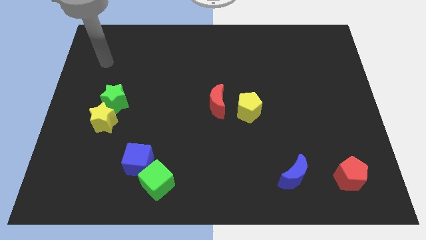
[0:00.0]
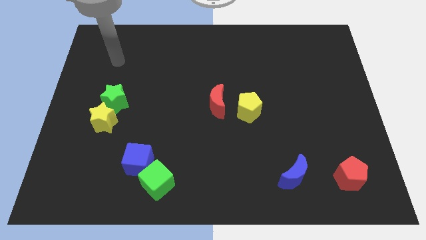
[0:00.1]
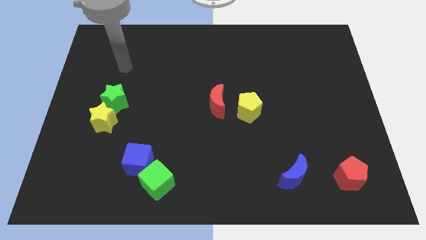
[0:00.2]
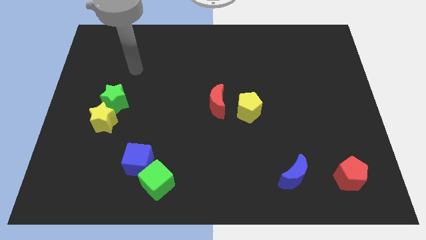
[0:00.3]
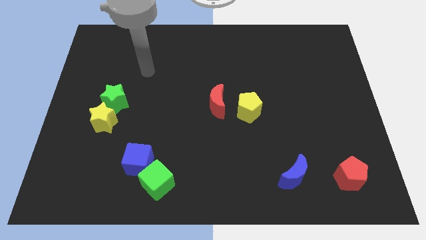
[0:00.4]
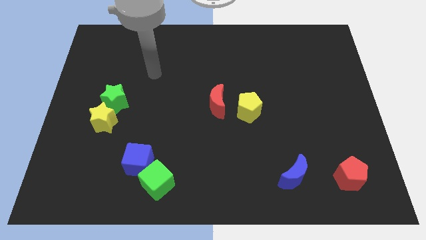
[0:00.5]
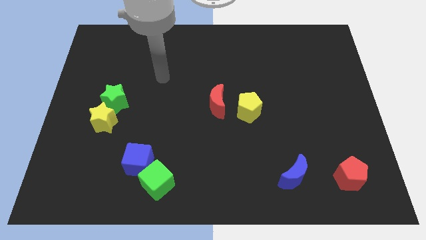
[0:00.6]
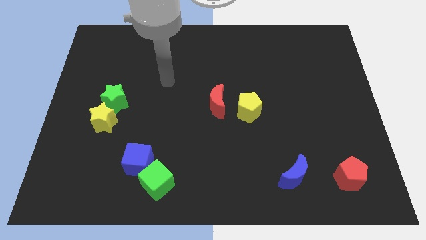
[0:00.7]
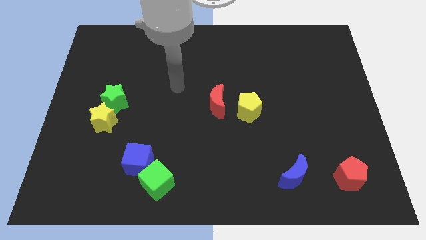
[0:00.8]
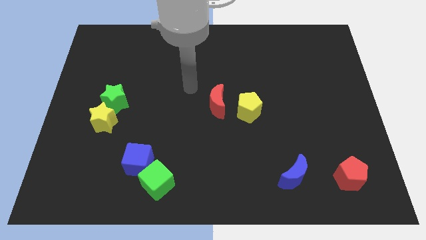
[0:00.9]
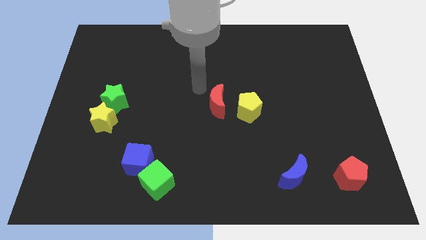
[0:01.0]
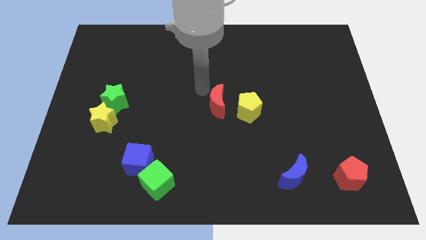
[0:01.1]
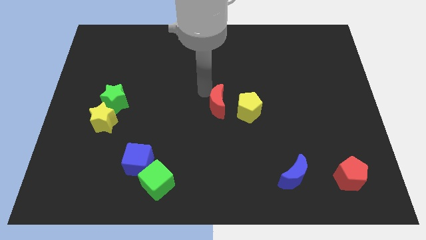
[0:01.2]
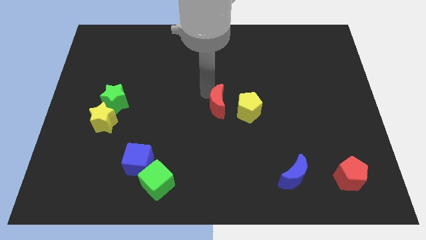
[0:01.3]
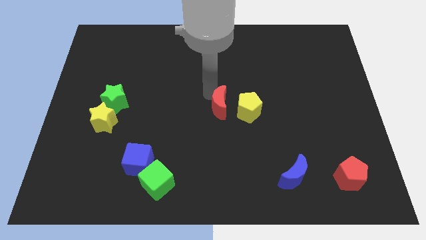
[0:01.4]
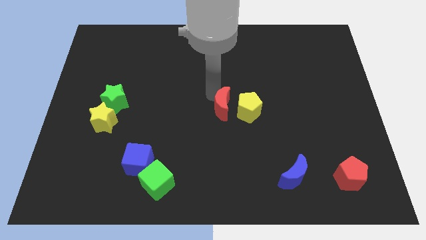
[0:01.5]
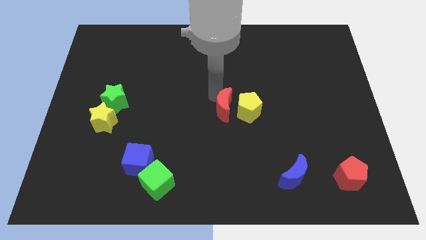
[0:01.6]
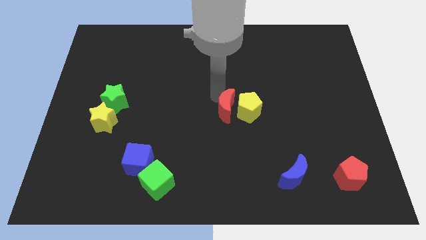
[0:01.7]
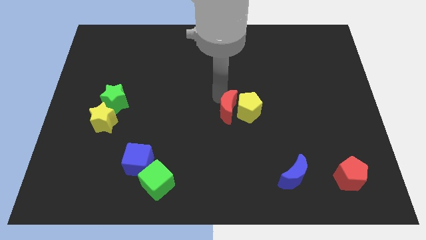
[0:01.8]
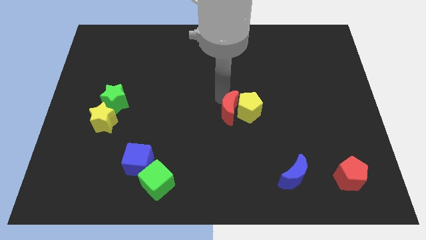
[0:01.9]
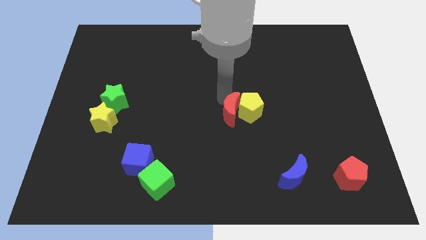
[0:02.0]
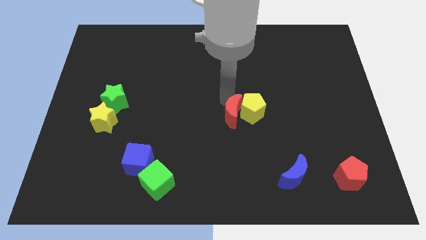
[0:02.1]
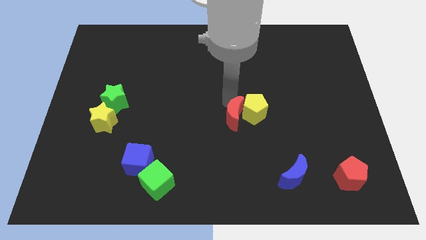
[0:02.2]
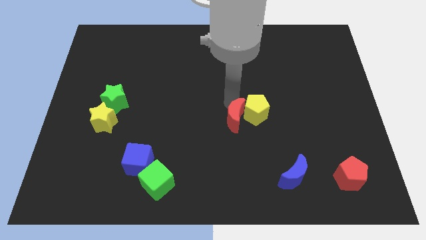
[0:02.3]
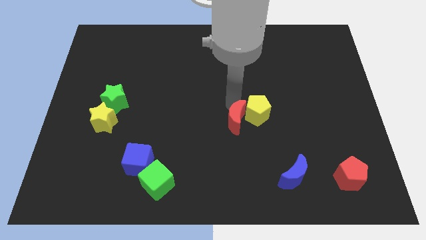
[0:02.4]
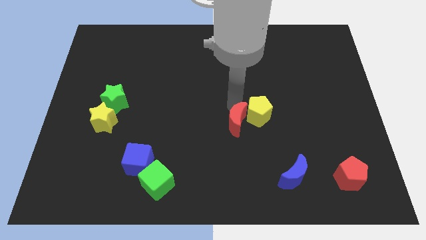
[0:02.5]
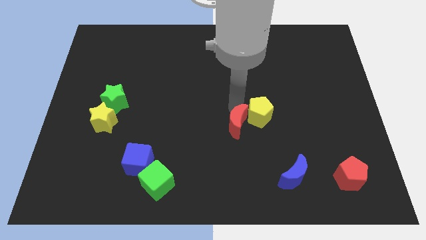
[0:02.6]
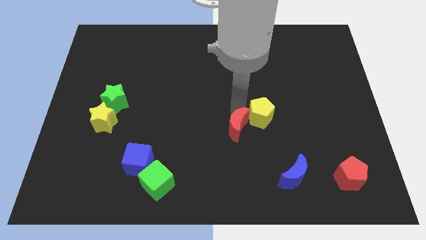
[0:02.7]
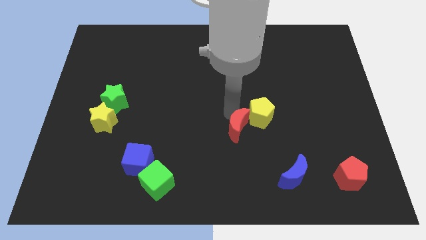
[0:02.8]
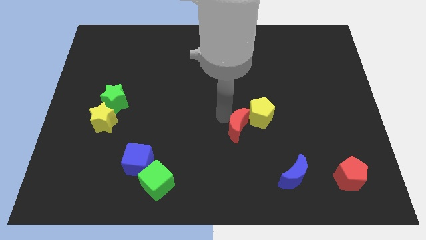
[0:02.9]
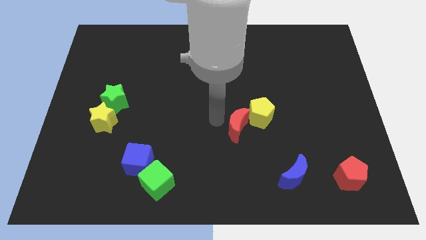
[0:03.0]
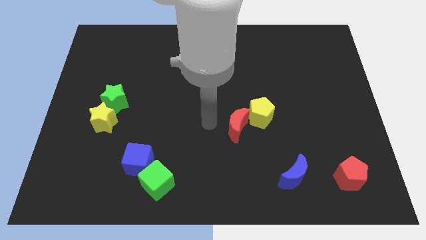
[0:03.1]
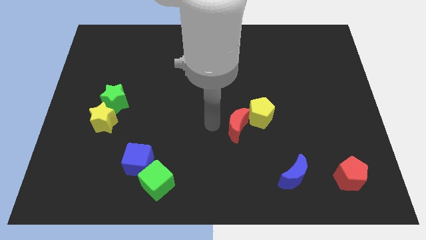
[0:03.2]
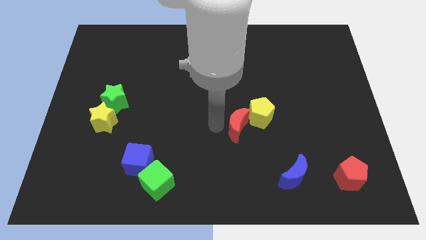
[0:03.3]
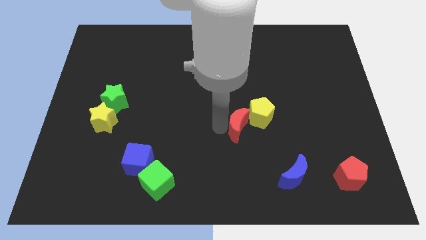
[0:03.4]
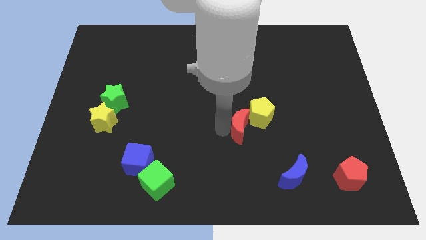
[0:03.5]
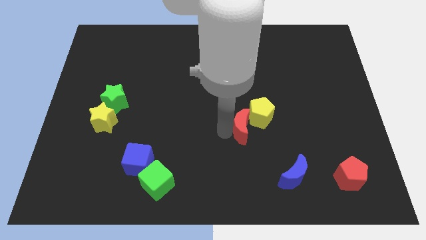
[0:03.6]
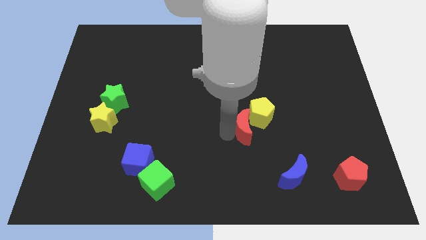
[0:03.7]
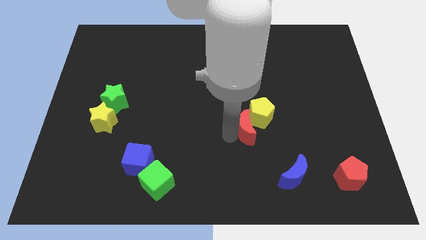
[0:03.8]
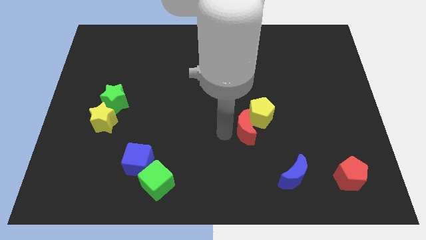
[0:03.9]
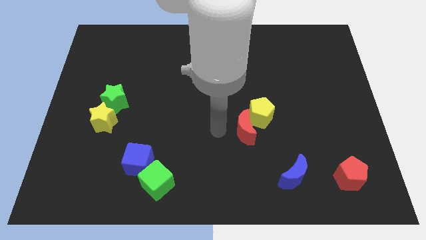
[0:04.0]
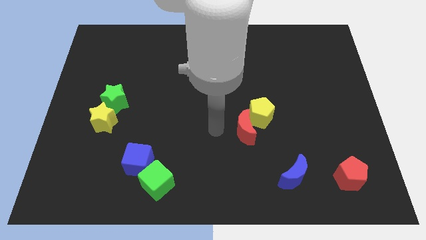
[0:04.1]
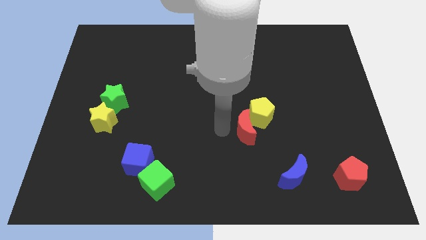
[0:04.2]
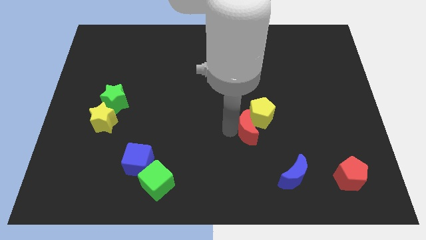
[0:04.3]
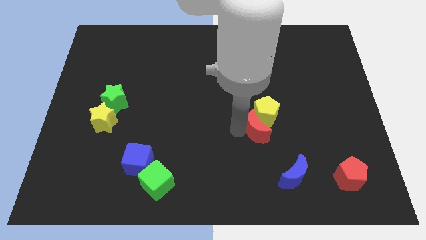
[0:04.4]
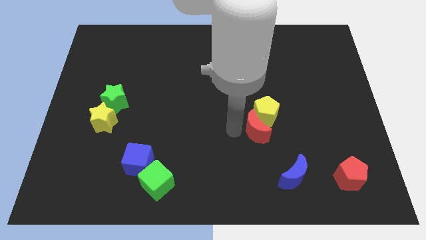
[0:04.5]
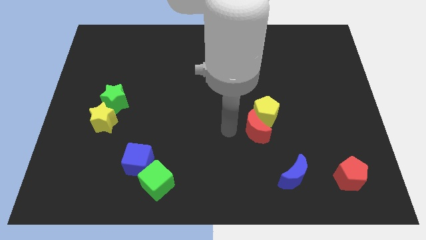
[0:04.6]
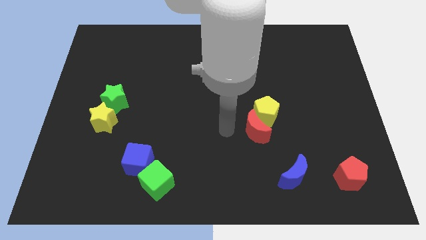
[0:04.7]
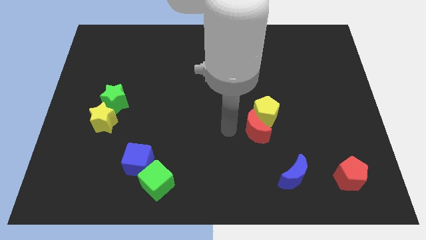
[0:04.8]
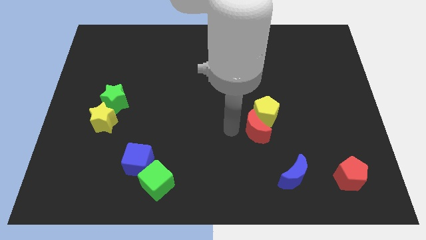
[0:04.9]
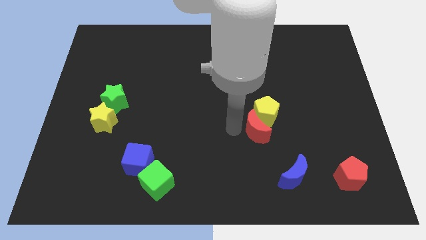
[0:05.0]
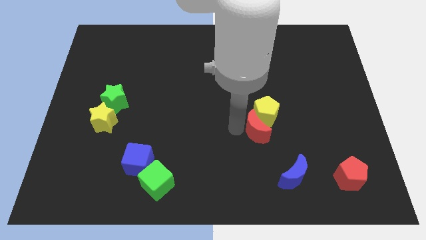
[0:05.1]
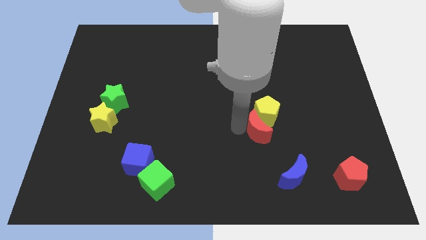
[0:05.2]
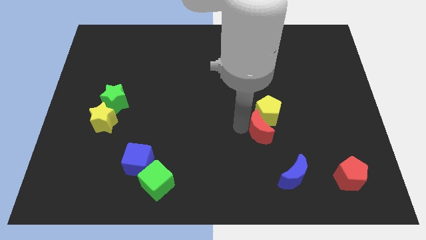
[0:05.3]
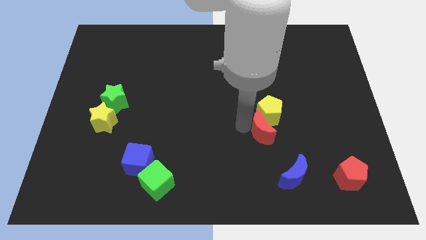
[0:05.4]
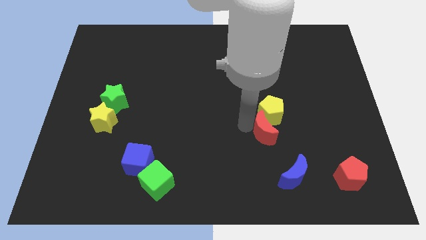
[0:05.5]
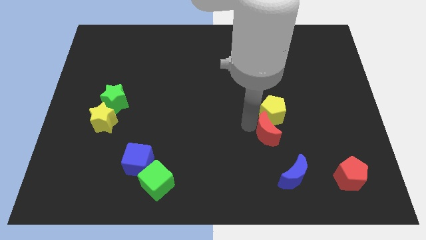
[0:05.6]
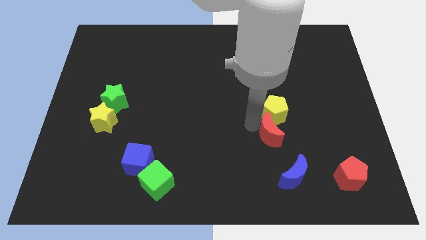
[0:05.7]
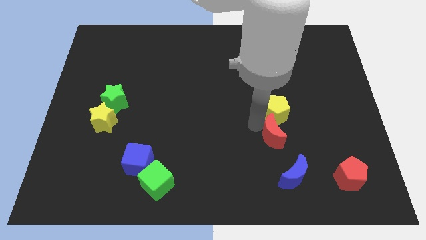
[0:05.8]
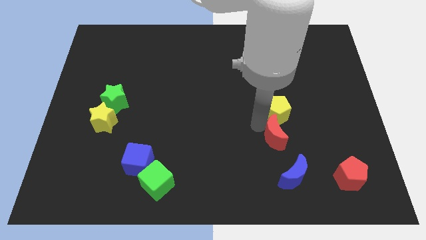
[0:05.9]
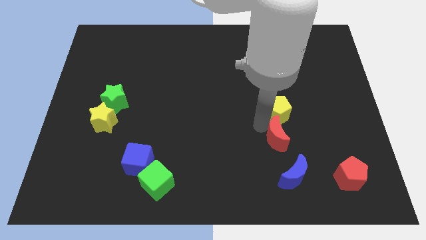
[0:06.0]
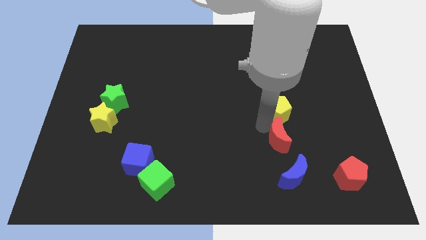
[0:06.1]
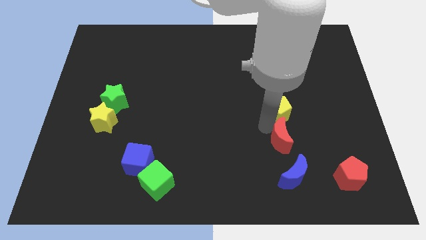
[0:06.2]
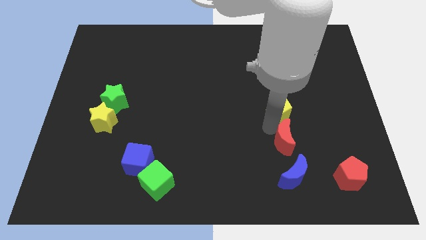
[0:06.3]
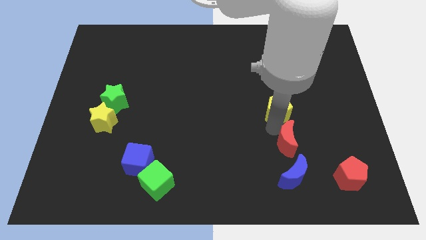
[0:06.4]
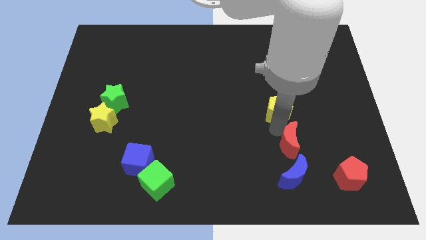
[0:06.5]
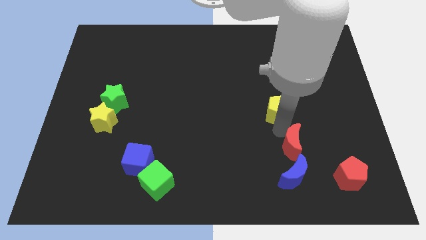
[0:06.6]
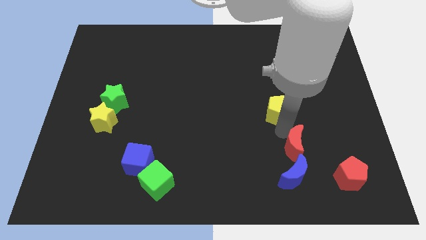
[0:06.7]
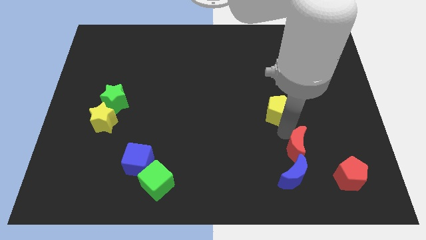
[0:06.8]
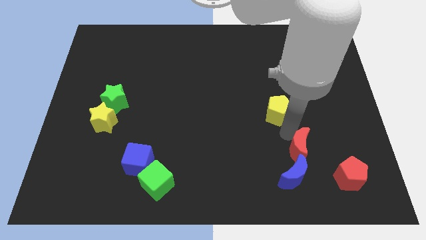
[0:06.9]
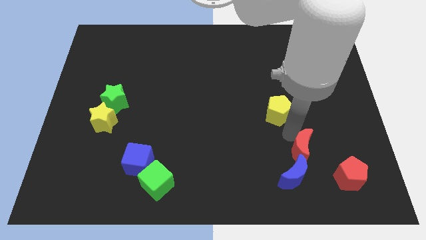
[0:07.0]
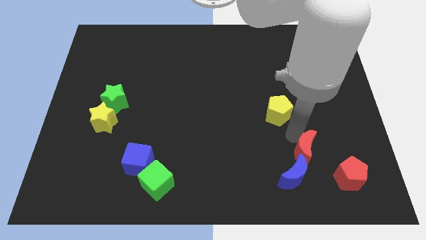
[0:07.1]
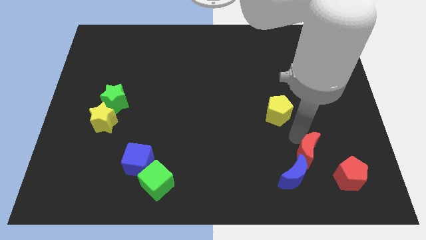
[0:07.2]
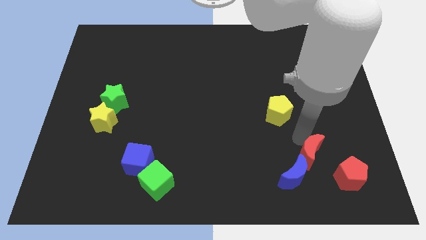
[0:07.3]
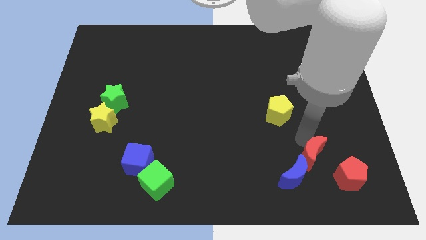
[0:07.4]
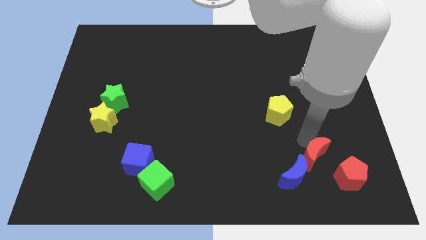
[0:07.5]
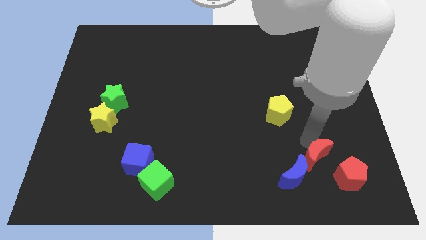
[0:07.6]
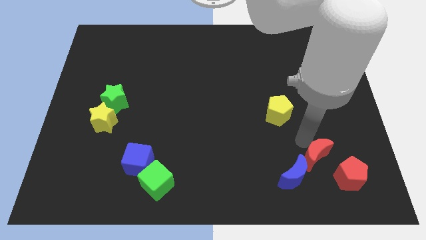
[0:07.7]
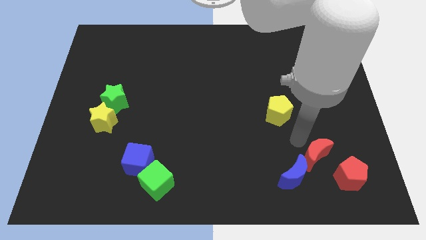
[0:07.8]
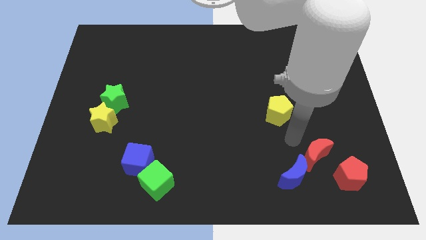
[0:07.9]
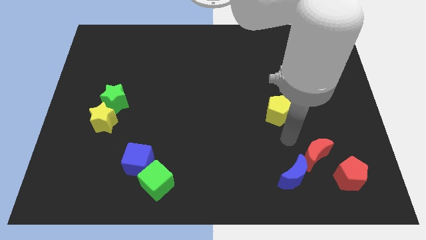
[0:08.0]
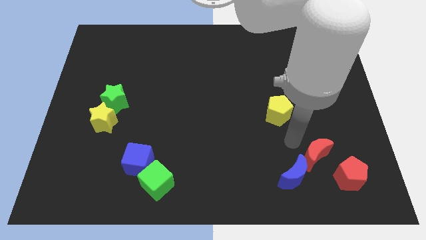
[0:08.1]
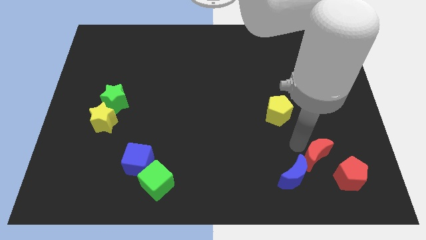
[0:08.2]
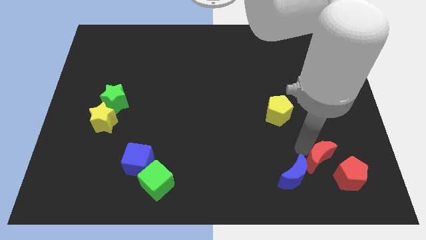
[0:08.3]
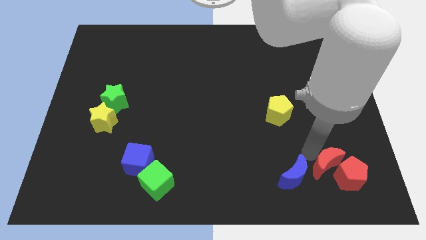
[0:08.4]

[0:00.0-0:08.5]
slide the red moon close to the red pentagon
